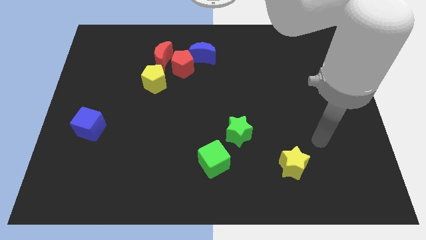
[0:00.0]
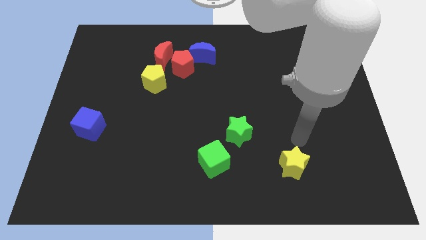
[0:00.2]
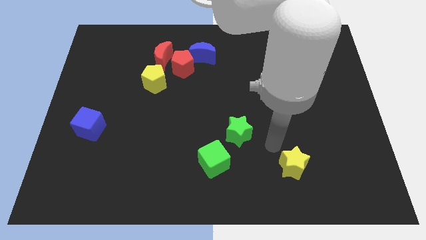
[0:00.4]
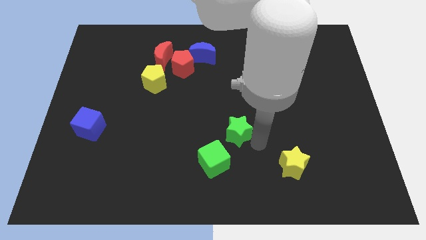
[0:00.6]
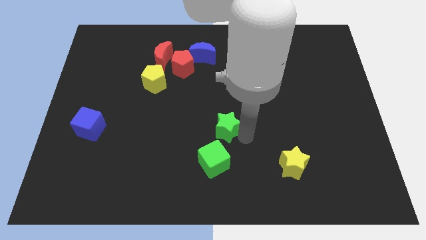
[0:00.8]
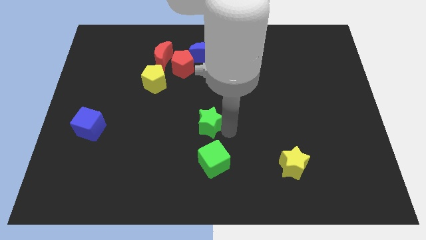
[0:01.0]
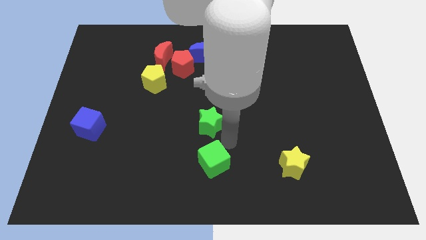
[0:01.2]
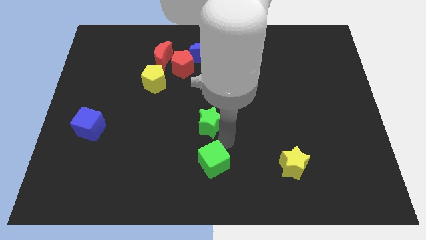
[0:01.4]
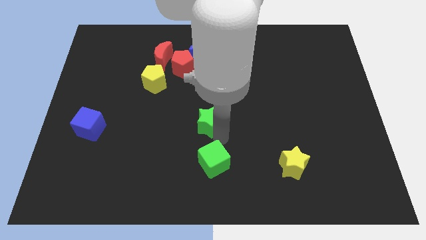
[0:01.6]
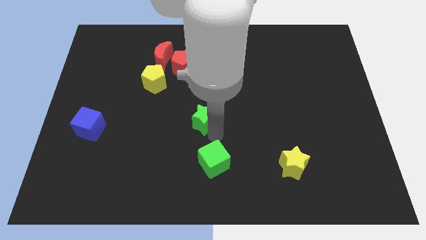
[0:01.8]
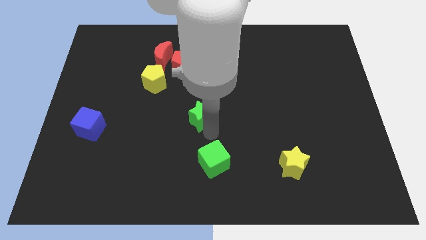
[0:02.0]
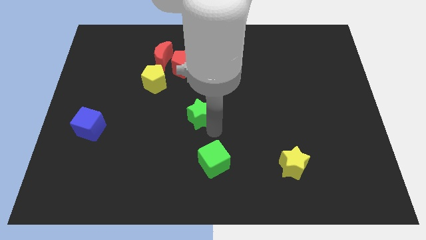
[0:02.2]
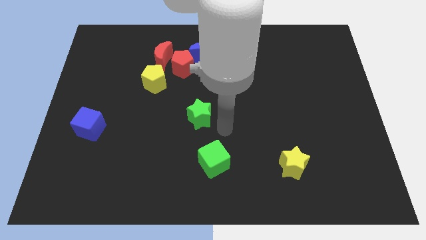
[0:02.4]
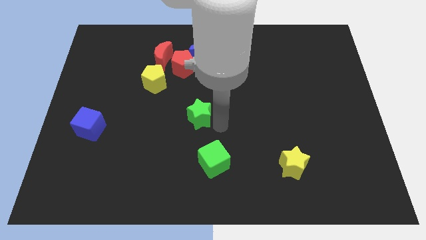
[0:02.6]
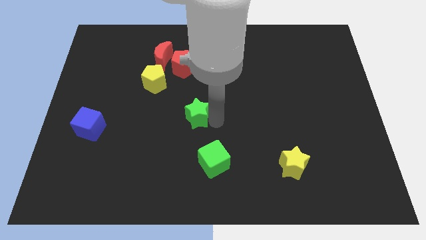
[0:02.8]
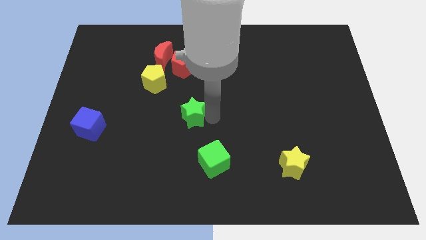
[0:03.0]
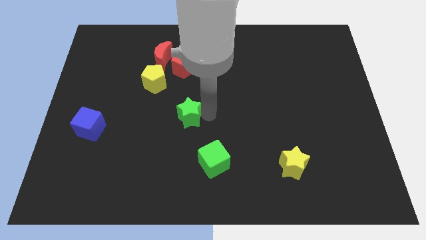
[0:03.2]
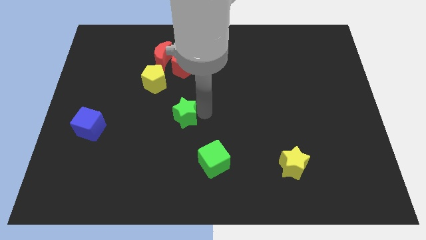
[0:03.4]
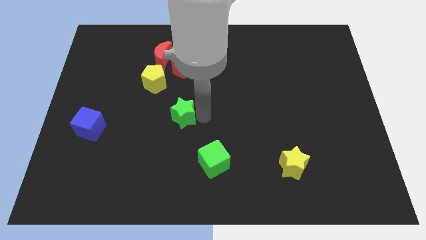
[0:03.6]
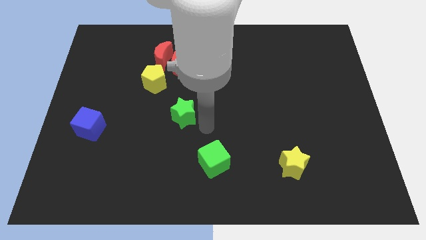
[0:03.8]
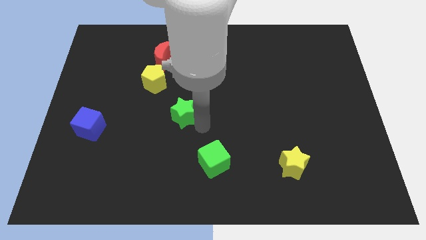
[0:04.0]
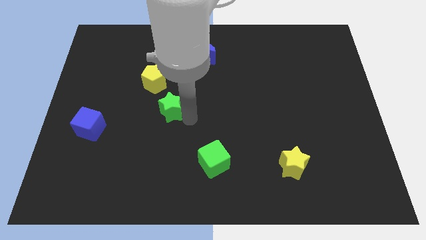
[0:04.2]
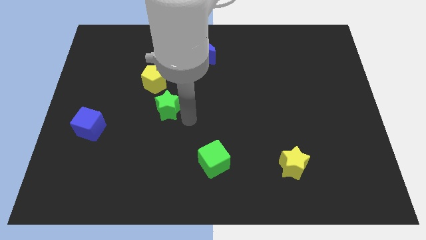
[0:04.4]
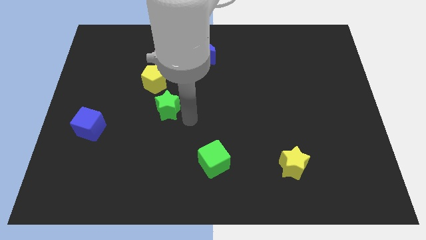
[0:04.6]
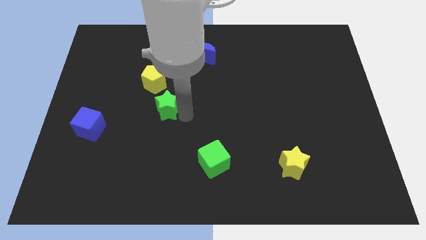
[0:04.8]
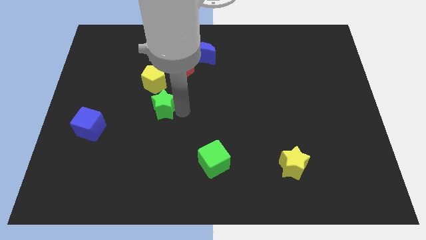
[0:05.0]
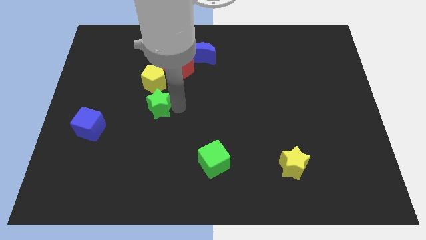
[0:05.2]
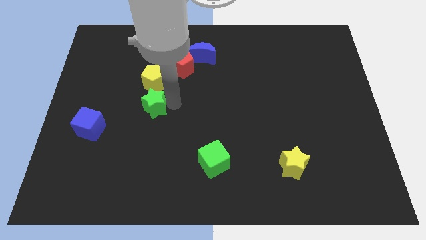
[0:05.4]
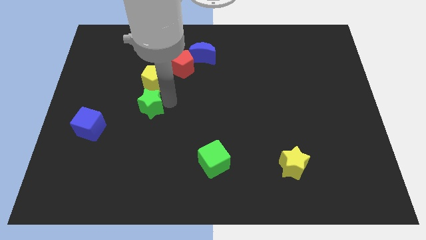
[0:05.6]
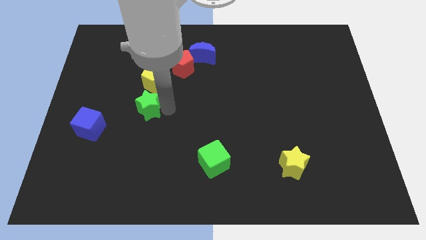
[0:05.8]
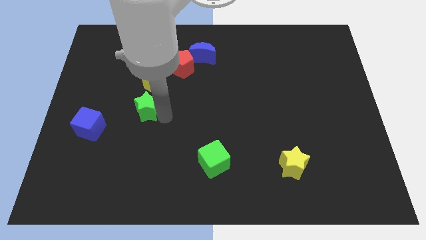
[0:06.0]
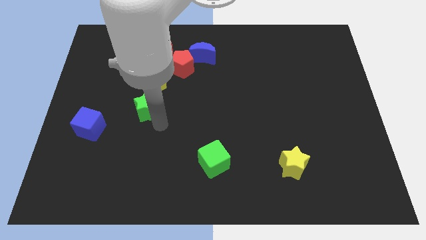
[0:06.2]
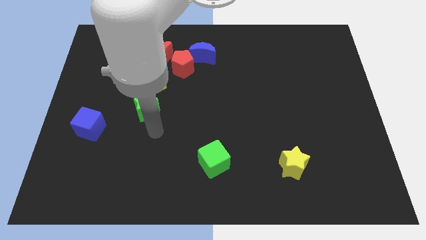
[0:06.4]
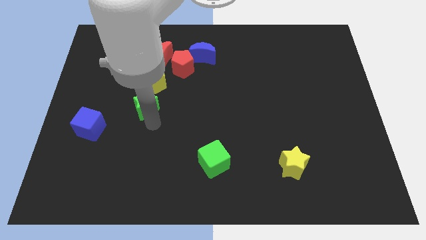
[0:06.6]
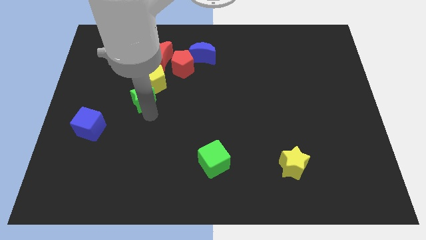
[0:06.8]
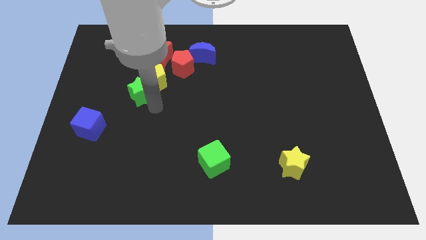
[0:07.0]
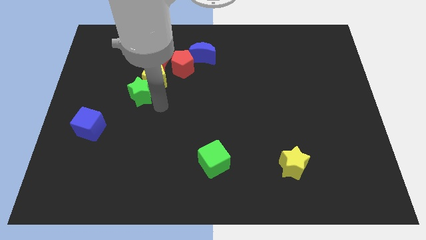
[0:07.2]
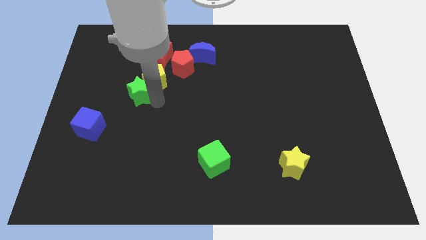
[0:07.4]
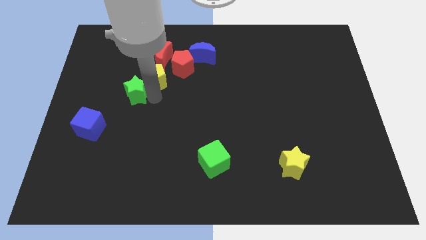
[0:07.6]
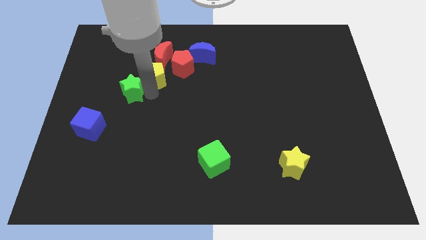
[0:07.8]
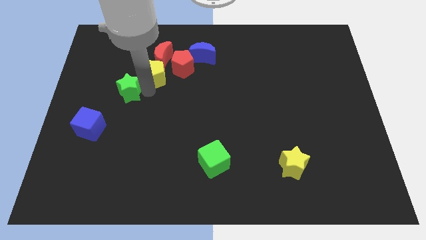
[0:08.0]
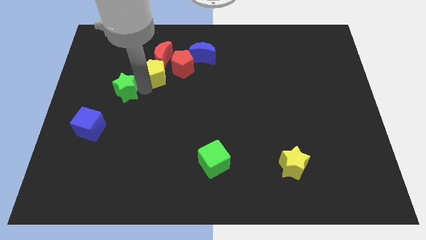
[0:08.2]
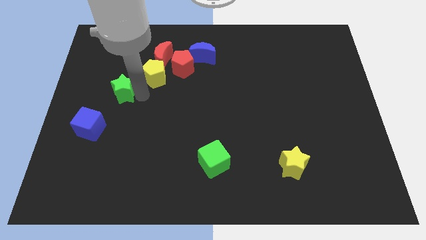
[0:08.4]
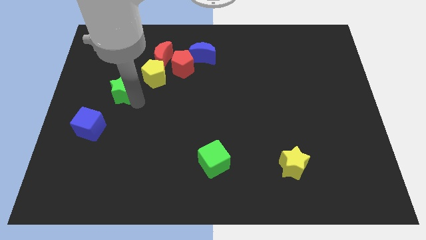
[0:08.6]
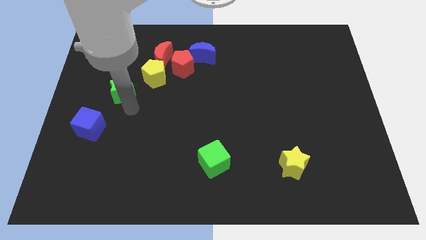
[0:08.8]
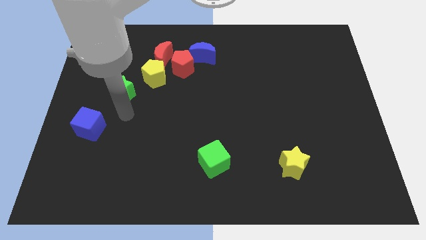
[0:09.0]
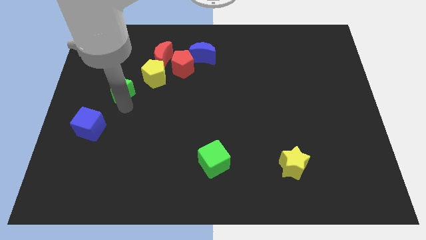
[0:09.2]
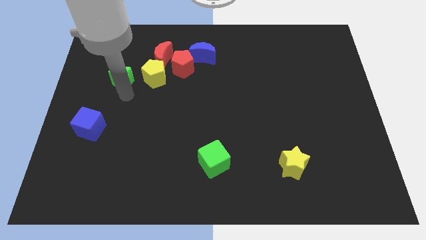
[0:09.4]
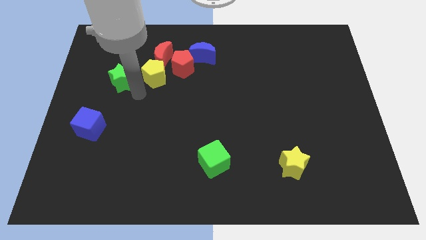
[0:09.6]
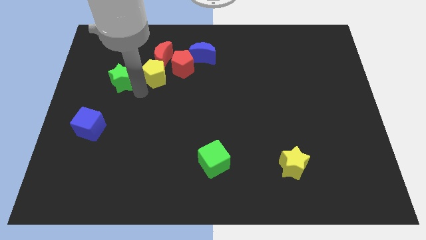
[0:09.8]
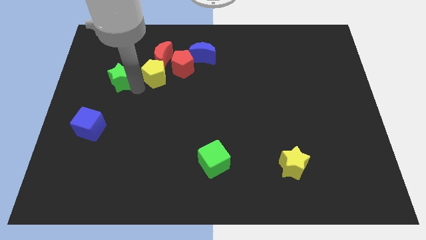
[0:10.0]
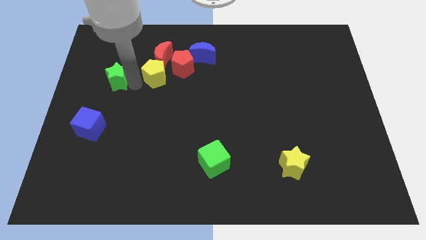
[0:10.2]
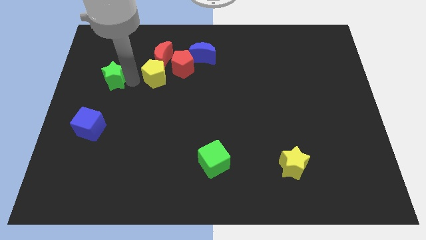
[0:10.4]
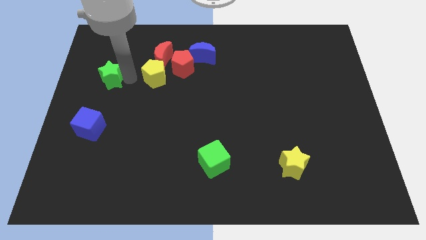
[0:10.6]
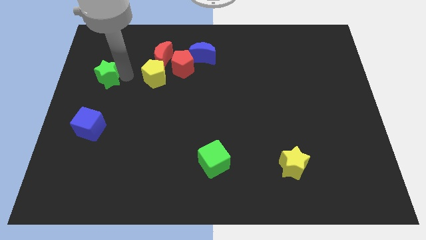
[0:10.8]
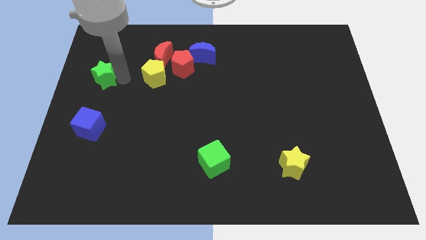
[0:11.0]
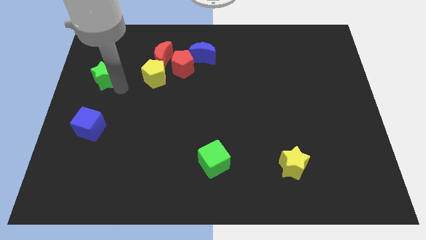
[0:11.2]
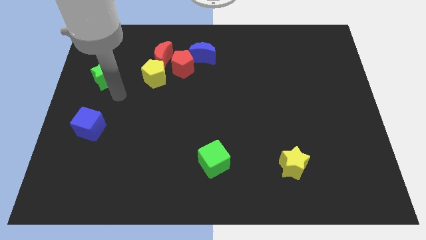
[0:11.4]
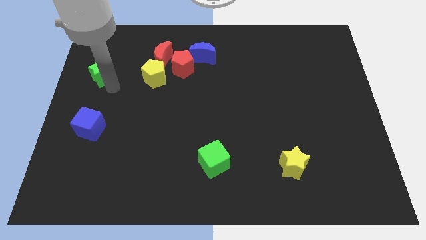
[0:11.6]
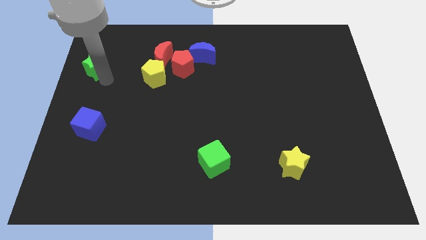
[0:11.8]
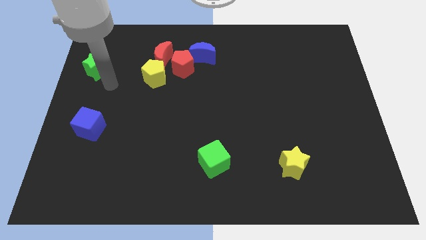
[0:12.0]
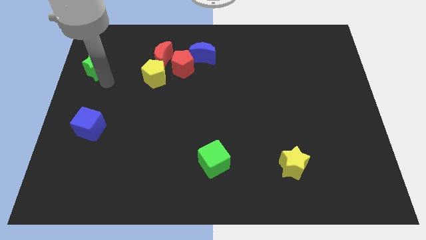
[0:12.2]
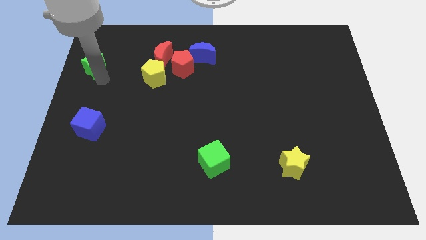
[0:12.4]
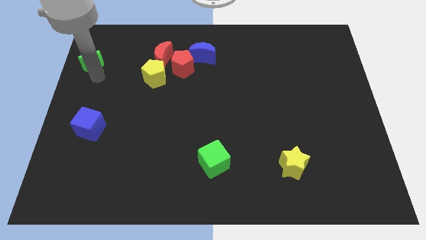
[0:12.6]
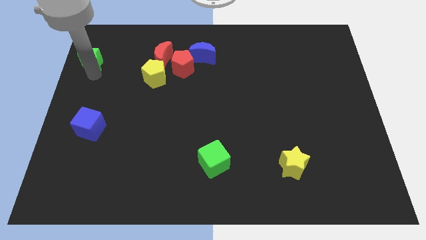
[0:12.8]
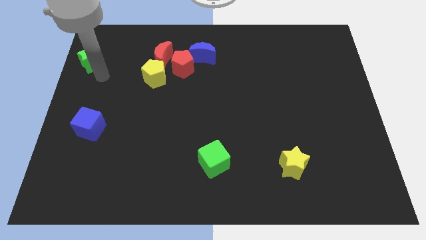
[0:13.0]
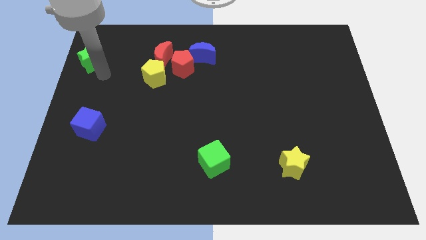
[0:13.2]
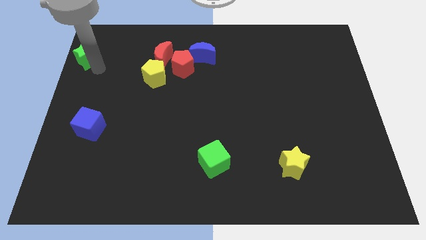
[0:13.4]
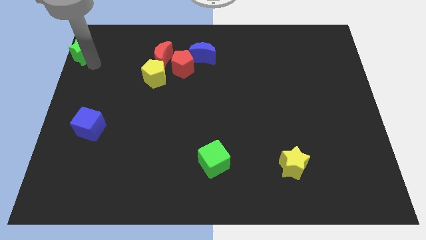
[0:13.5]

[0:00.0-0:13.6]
move the green star to the top left corner
